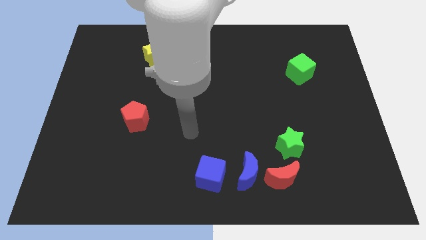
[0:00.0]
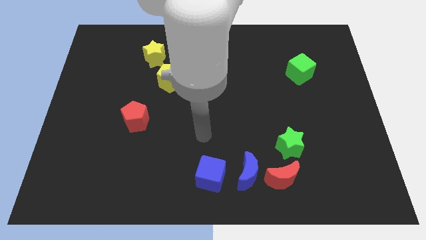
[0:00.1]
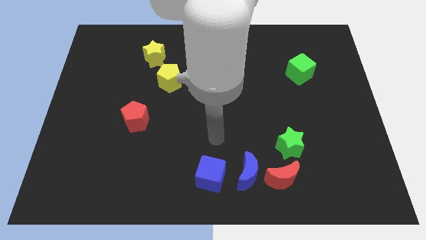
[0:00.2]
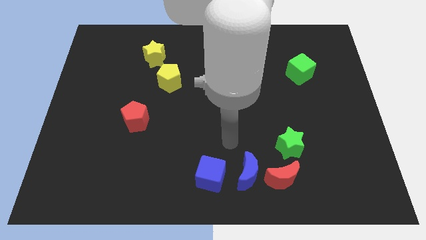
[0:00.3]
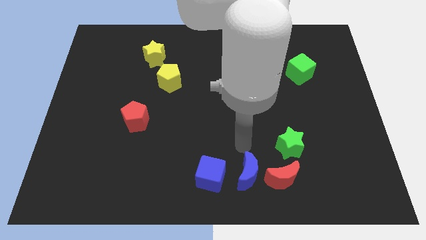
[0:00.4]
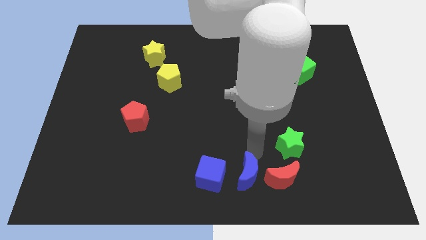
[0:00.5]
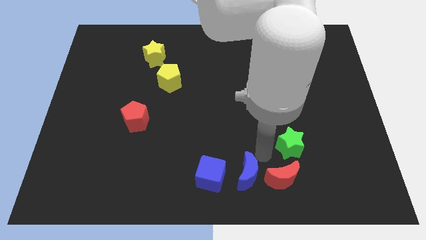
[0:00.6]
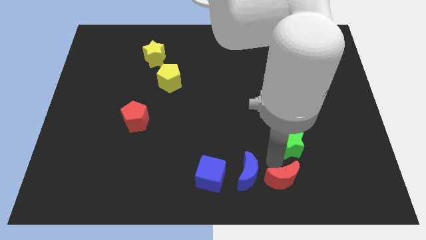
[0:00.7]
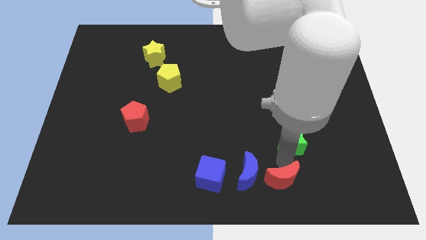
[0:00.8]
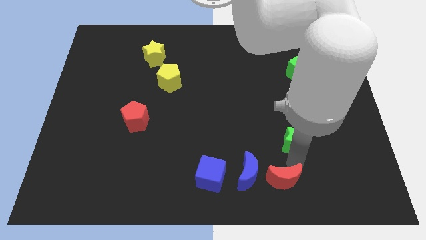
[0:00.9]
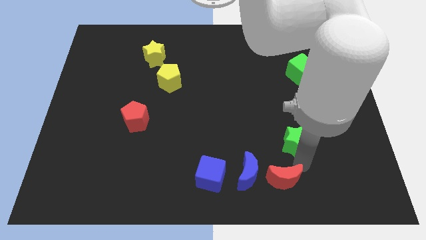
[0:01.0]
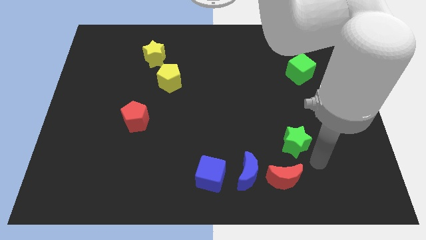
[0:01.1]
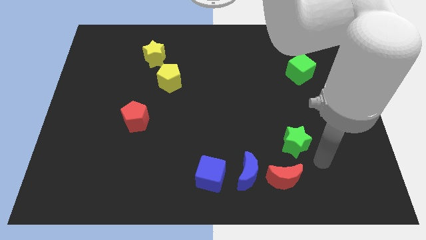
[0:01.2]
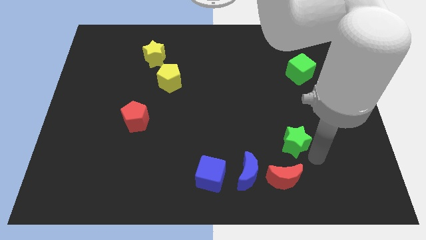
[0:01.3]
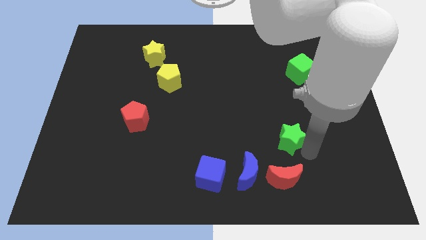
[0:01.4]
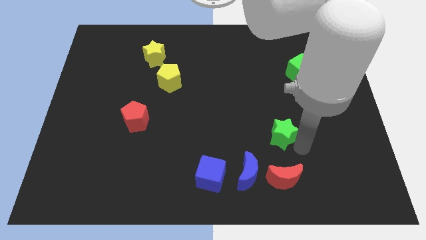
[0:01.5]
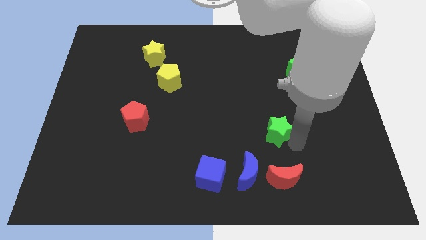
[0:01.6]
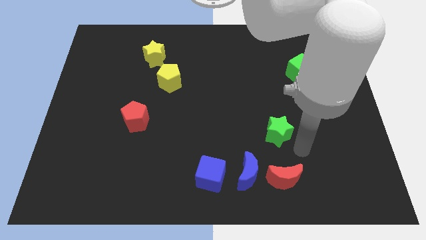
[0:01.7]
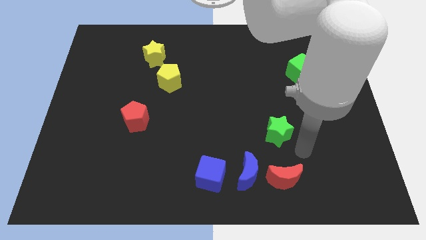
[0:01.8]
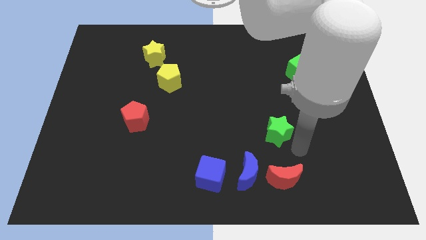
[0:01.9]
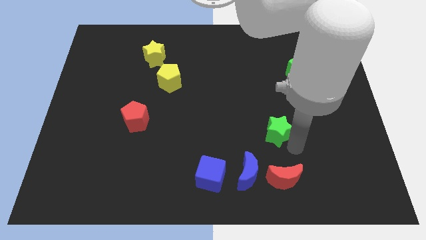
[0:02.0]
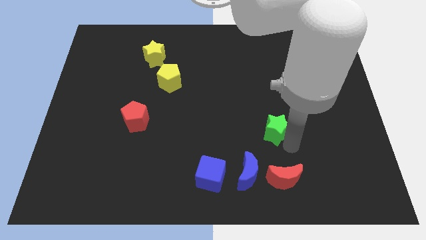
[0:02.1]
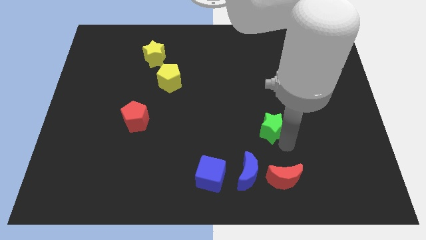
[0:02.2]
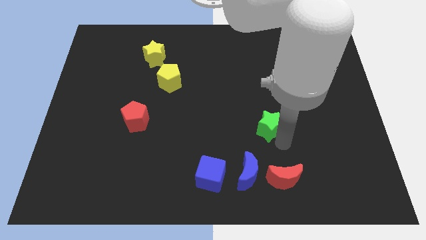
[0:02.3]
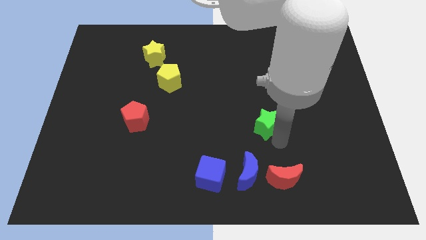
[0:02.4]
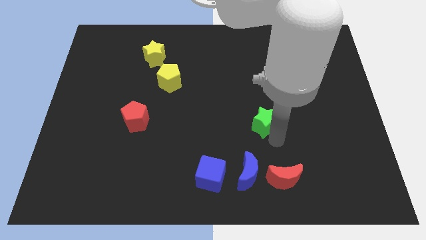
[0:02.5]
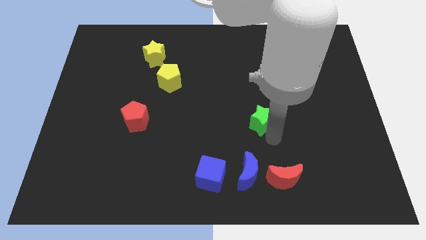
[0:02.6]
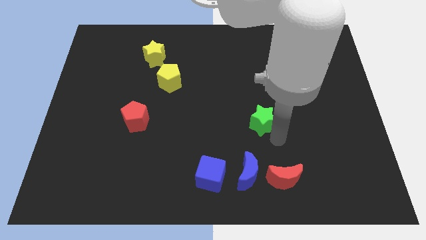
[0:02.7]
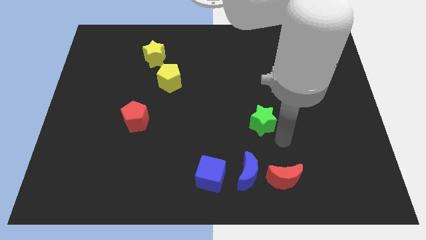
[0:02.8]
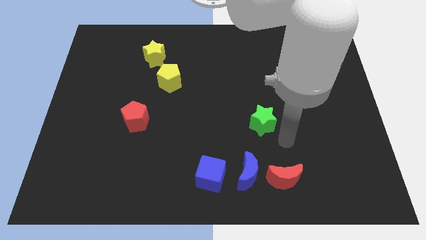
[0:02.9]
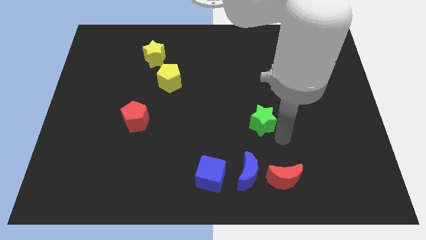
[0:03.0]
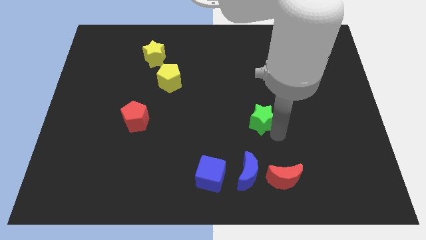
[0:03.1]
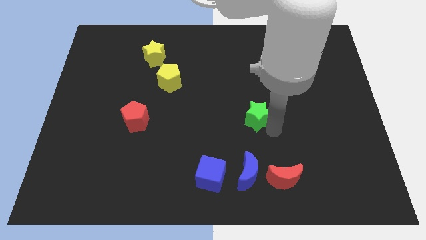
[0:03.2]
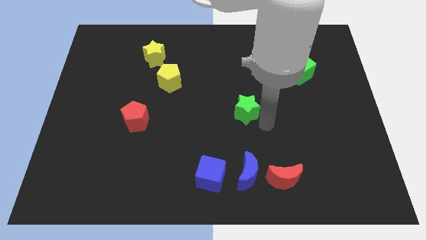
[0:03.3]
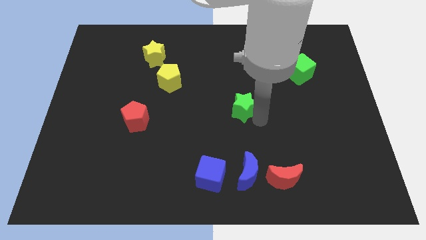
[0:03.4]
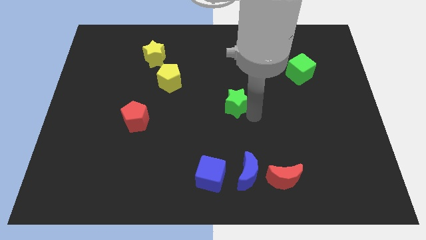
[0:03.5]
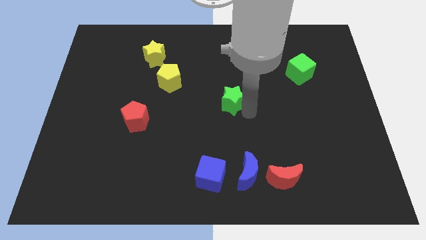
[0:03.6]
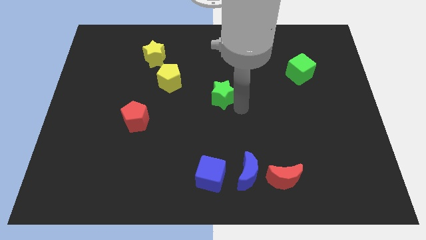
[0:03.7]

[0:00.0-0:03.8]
push the green star upwards and left

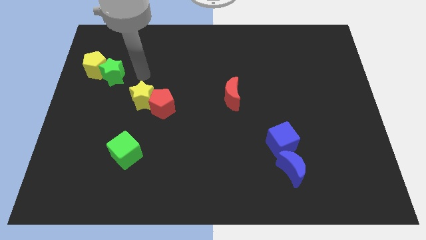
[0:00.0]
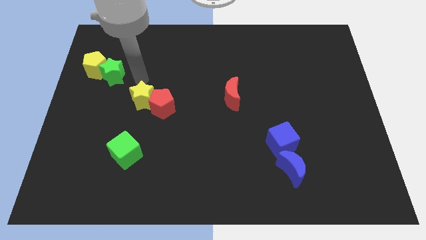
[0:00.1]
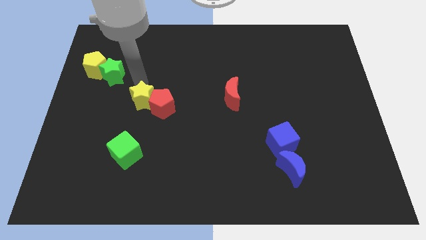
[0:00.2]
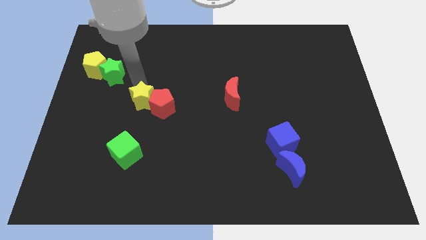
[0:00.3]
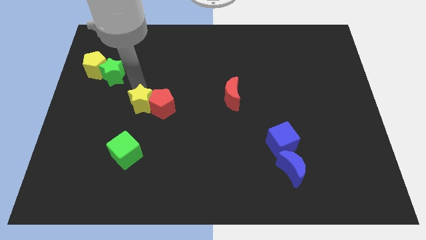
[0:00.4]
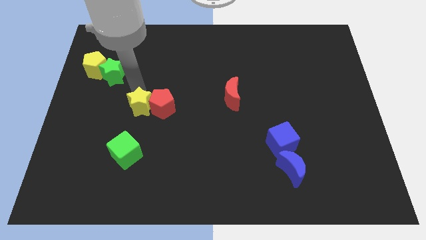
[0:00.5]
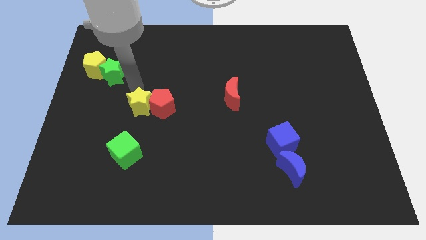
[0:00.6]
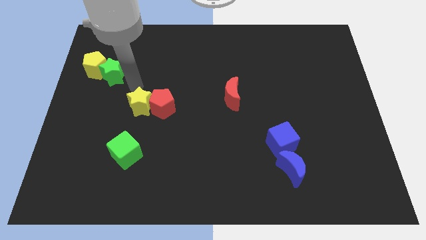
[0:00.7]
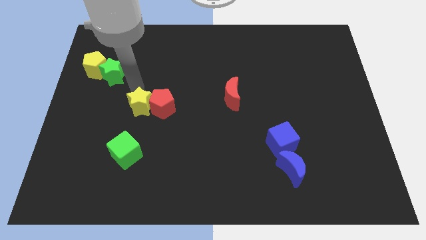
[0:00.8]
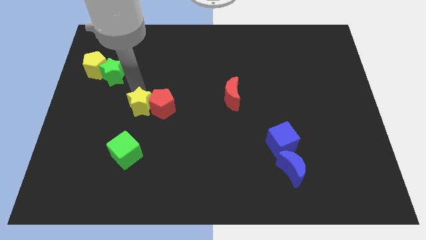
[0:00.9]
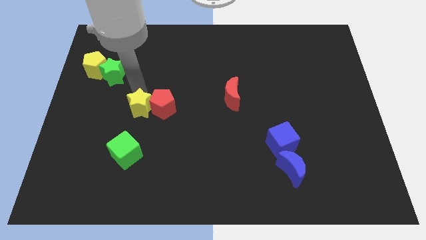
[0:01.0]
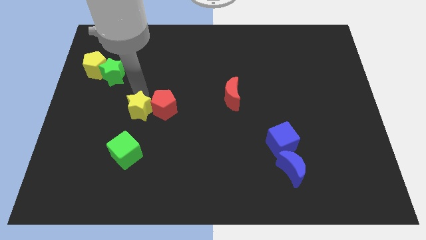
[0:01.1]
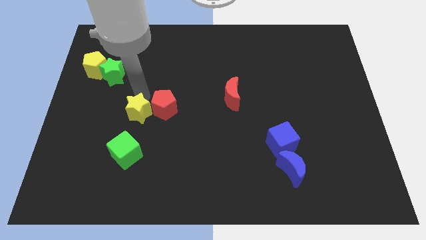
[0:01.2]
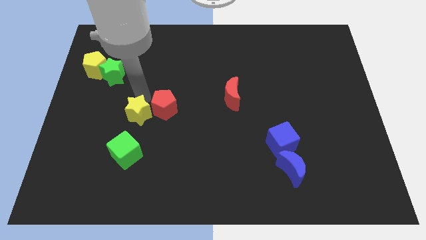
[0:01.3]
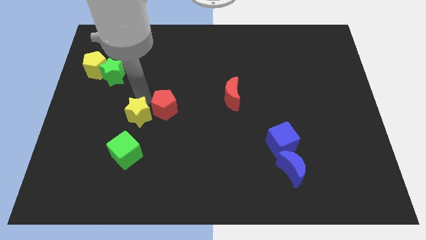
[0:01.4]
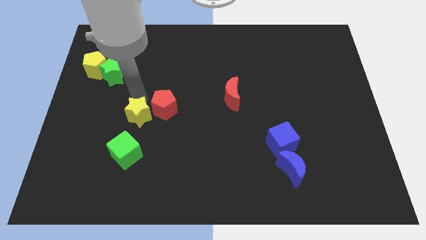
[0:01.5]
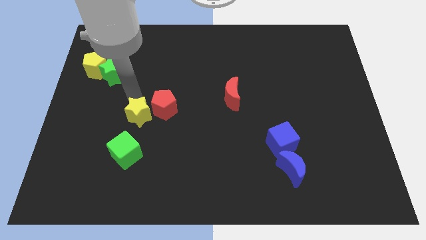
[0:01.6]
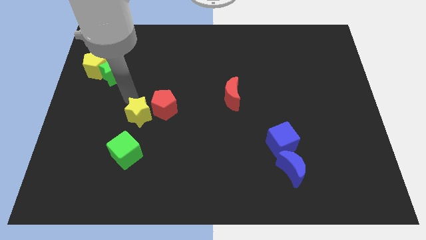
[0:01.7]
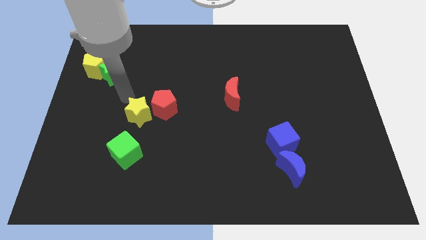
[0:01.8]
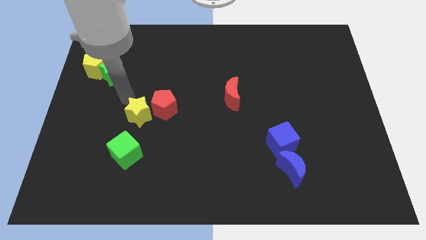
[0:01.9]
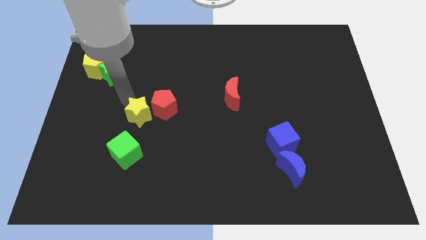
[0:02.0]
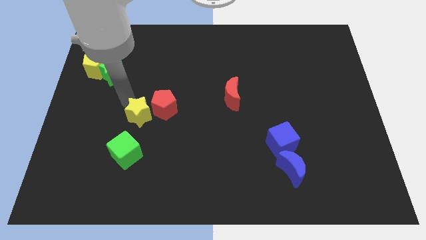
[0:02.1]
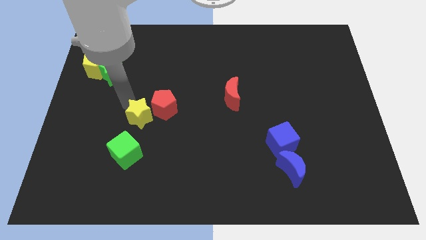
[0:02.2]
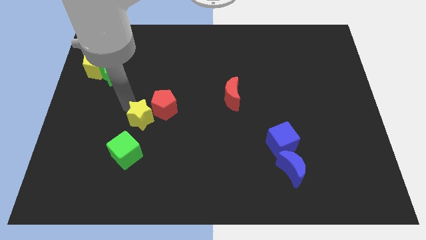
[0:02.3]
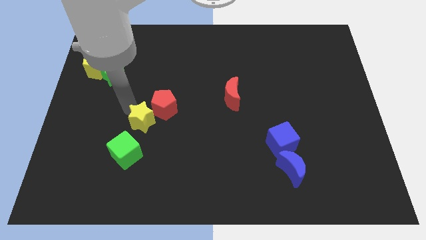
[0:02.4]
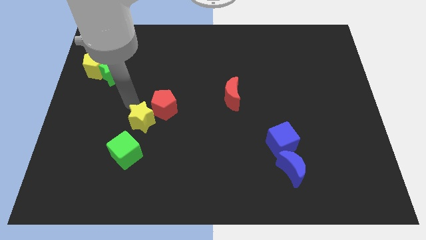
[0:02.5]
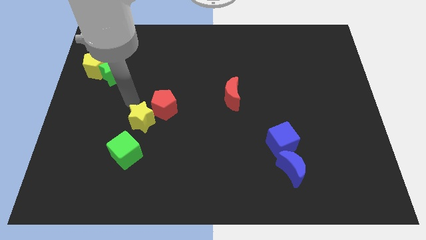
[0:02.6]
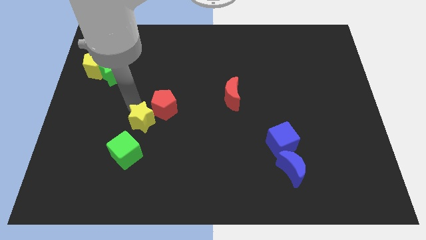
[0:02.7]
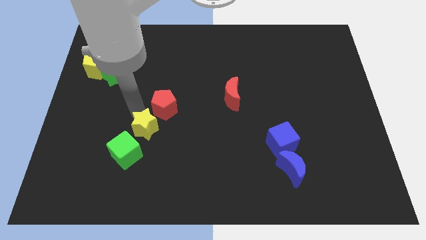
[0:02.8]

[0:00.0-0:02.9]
slide the yellow star somewhat downwards

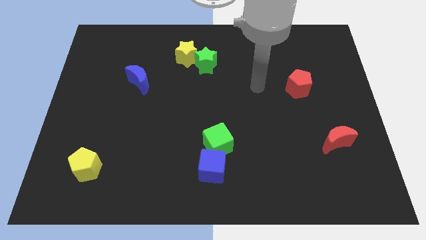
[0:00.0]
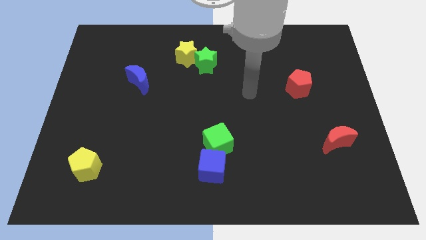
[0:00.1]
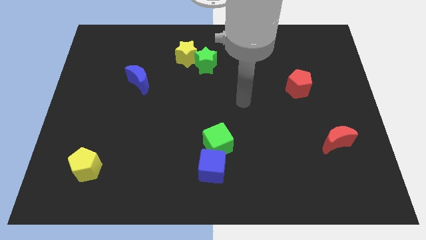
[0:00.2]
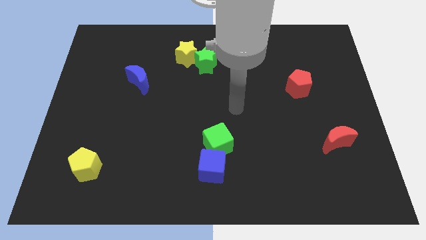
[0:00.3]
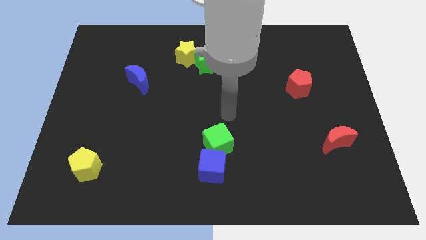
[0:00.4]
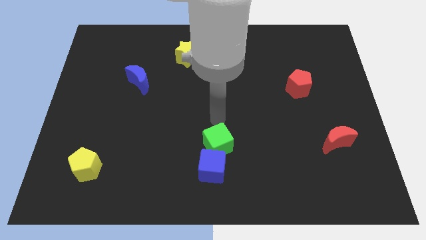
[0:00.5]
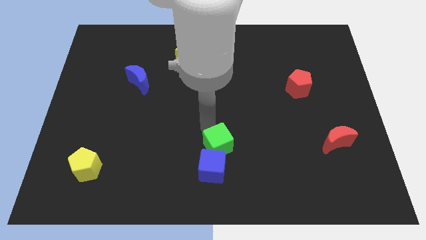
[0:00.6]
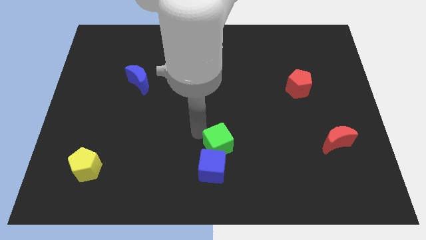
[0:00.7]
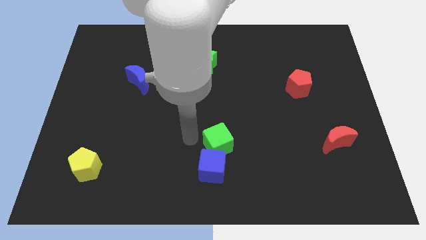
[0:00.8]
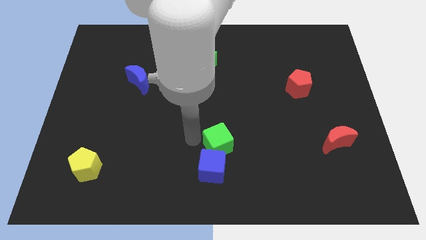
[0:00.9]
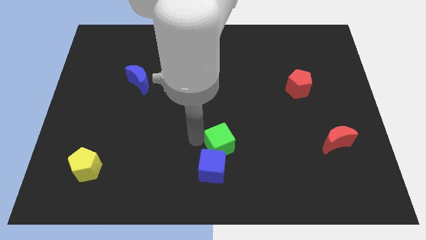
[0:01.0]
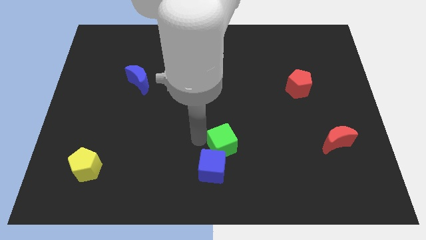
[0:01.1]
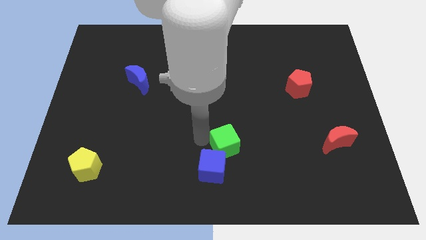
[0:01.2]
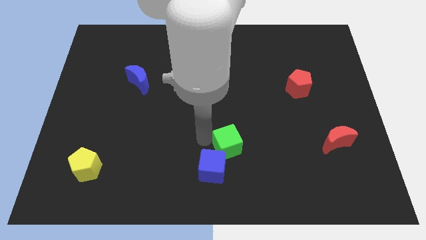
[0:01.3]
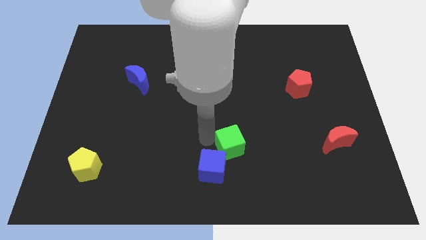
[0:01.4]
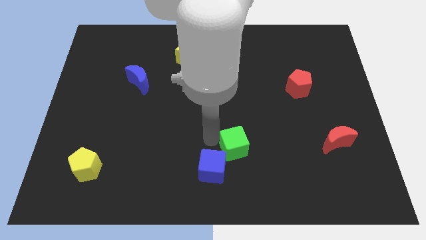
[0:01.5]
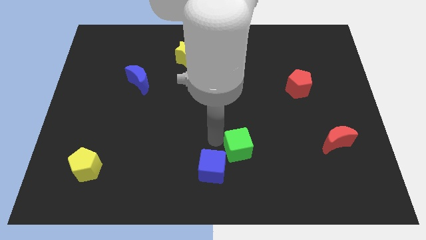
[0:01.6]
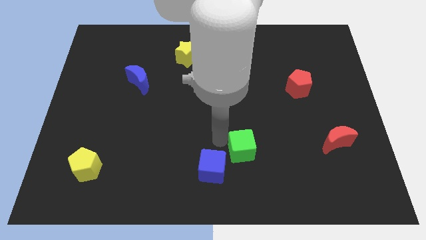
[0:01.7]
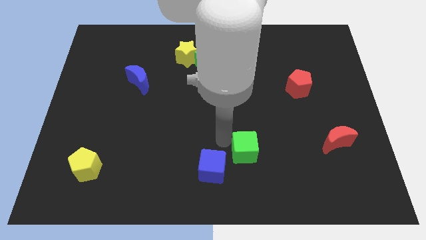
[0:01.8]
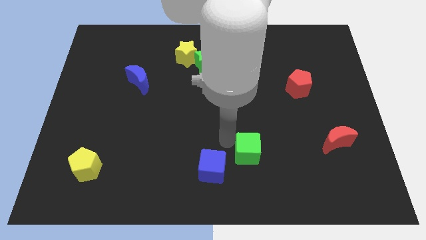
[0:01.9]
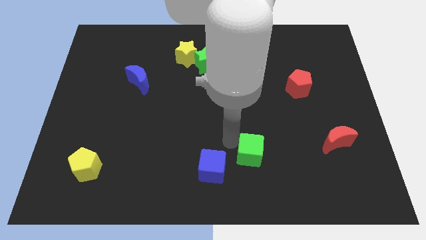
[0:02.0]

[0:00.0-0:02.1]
move the green cube slightly right
